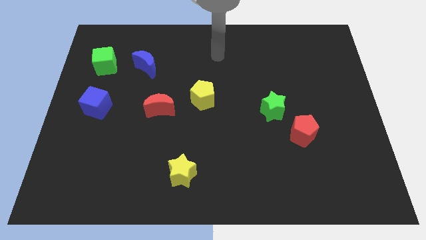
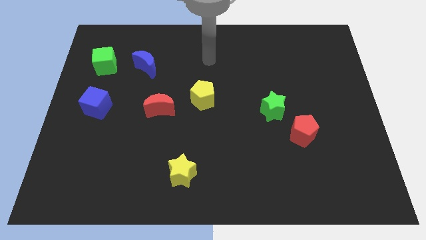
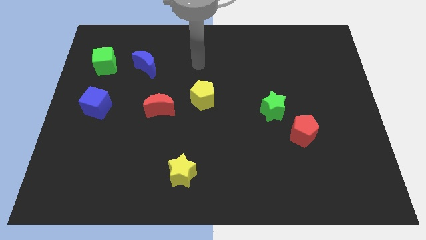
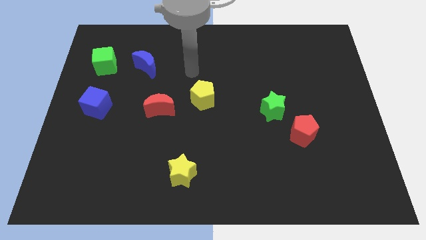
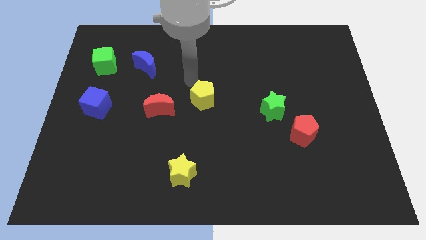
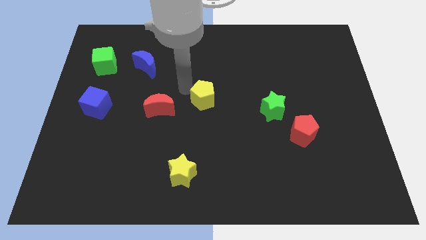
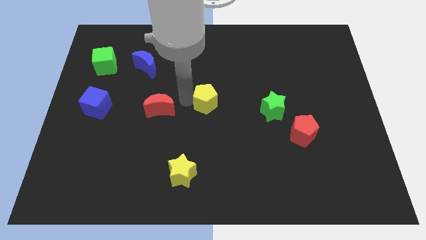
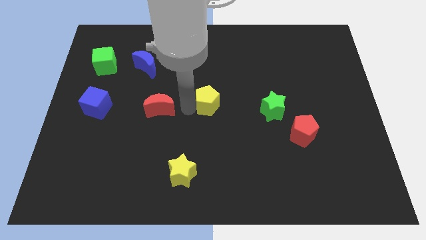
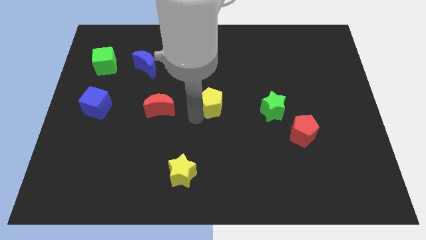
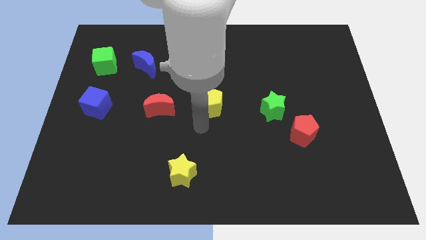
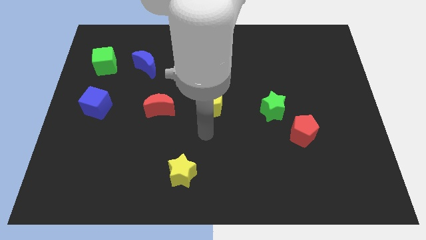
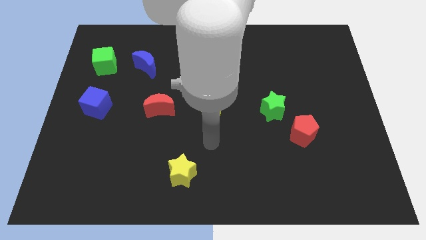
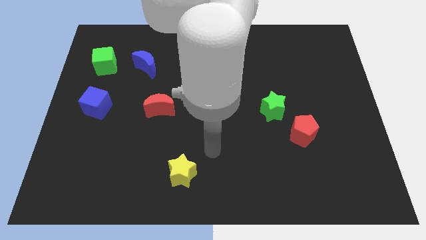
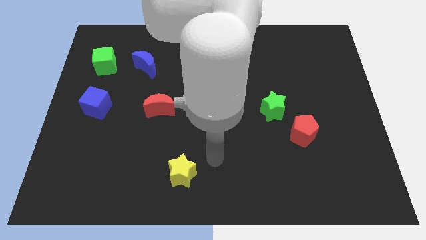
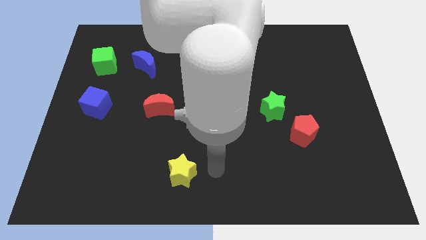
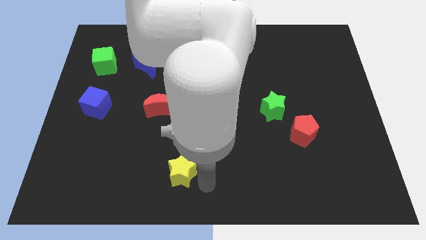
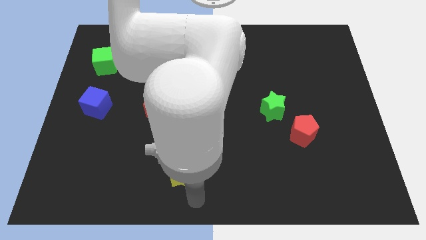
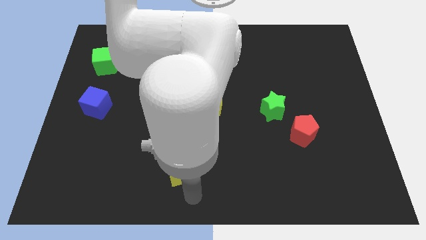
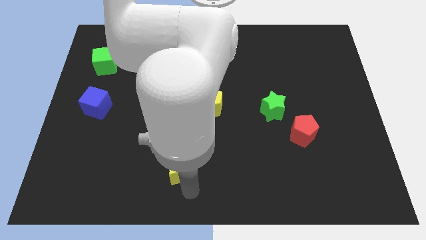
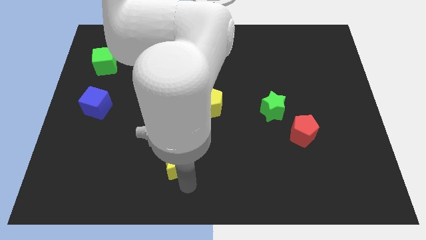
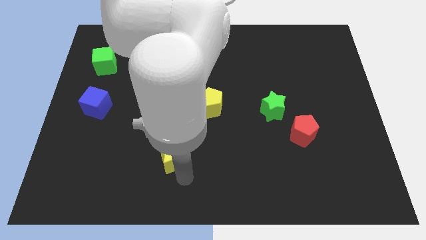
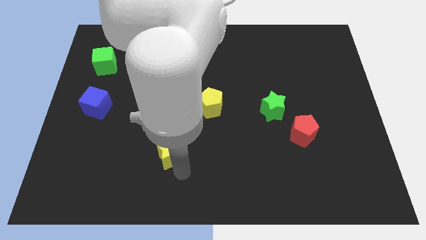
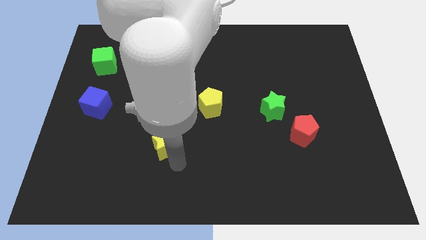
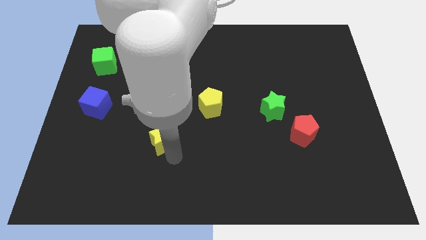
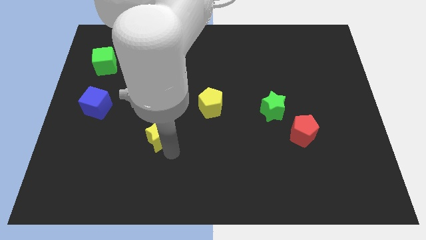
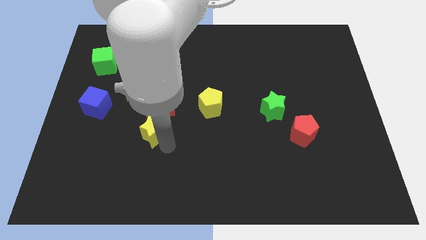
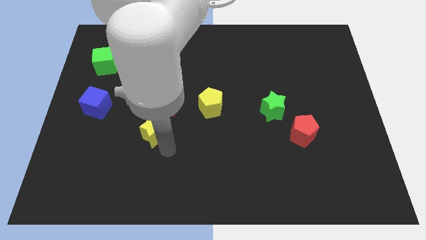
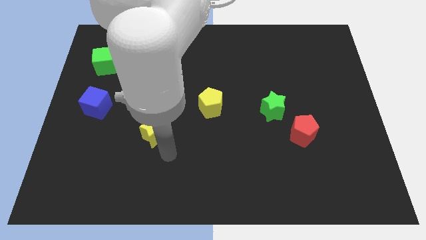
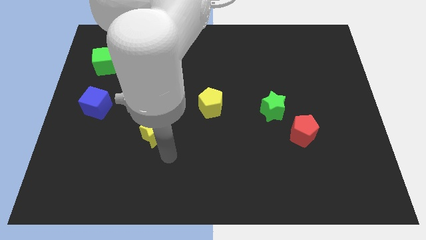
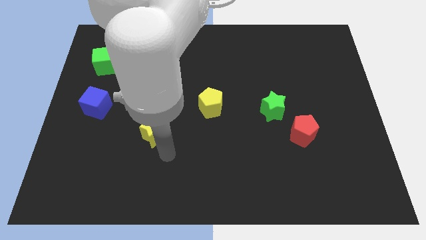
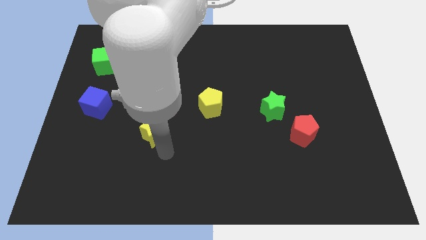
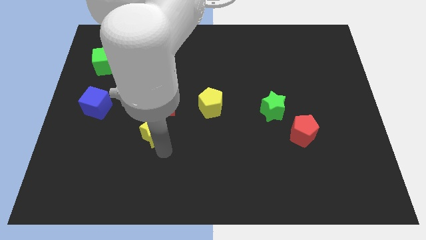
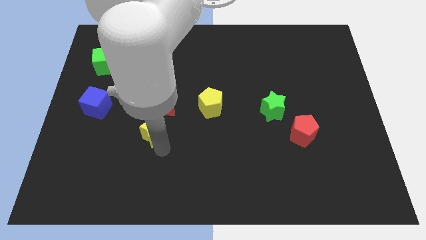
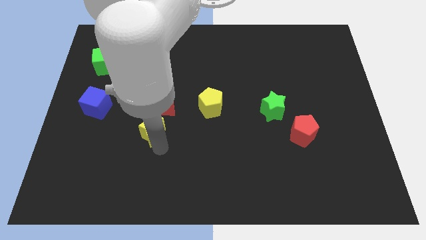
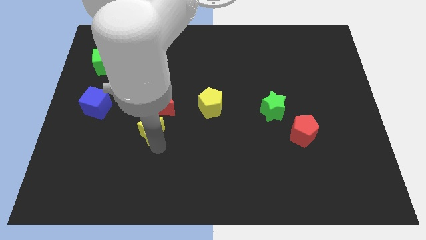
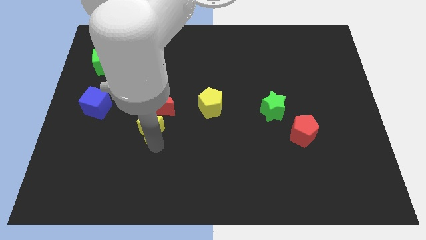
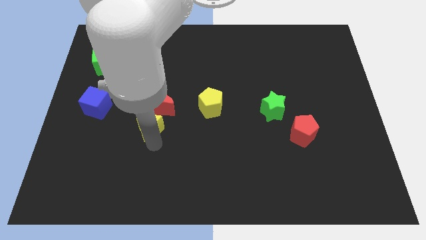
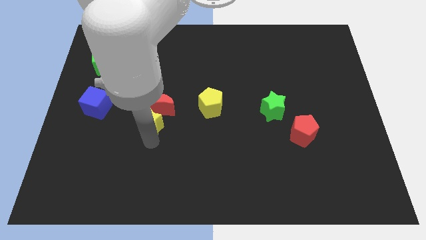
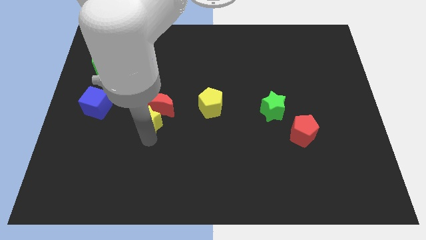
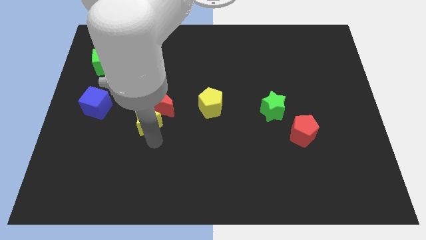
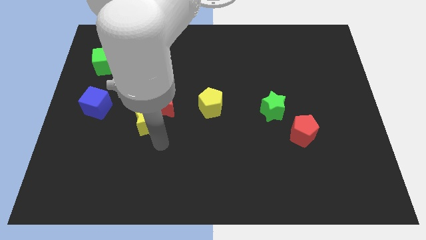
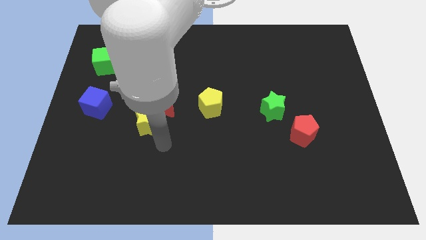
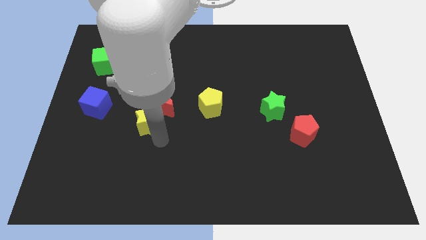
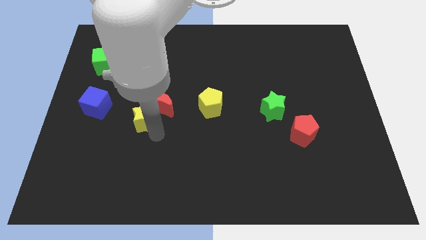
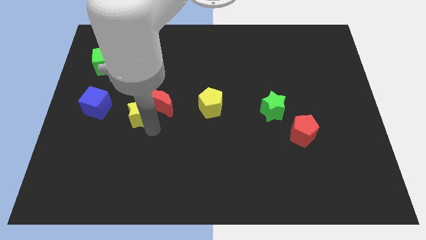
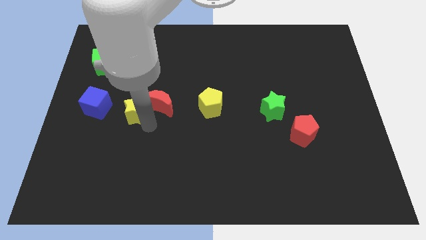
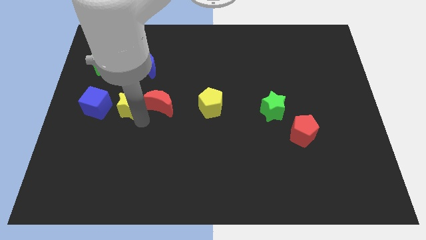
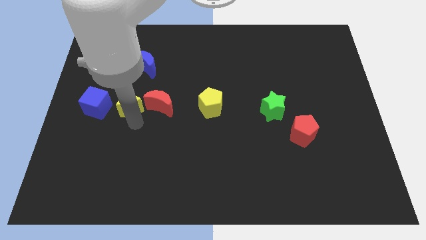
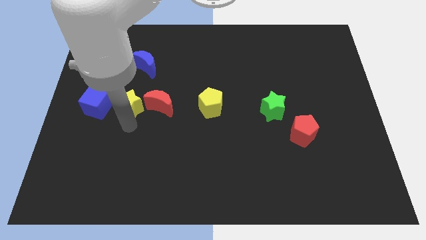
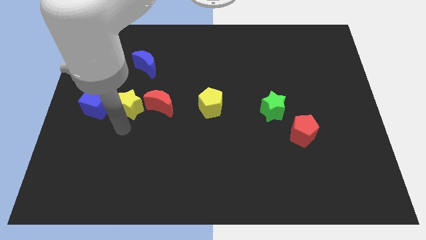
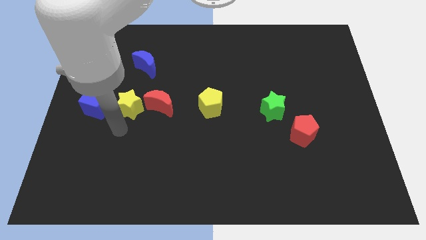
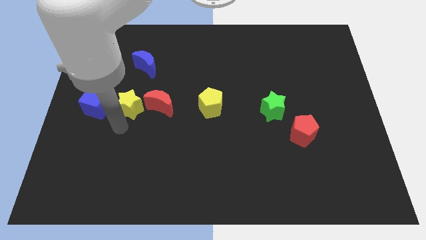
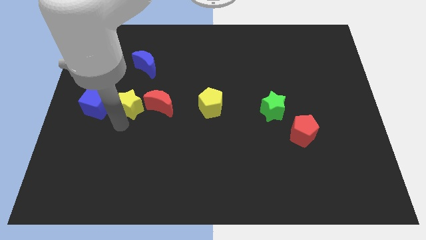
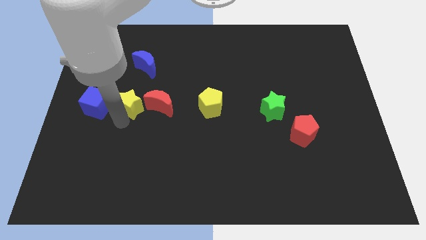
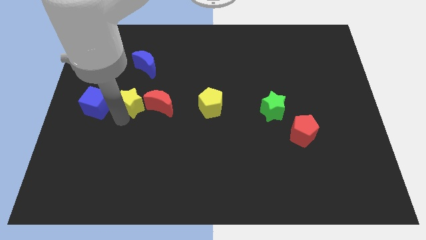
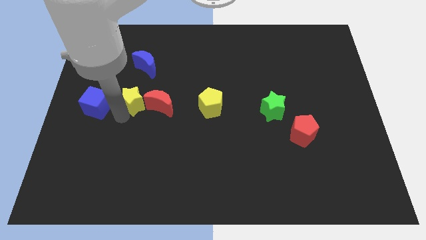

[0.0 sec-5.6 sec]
put the yellow star to the top left side of the red moon

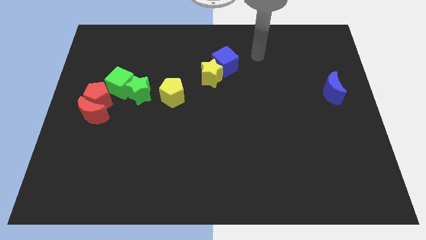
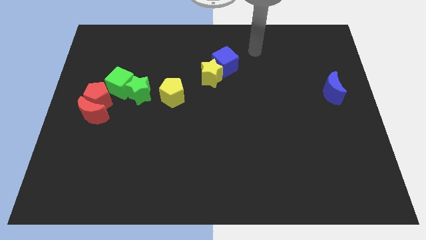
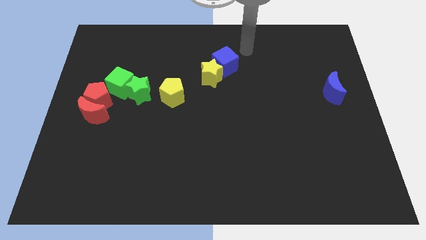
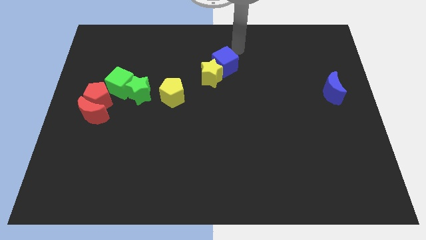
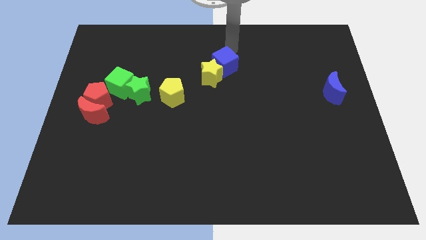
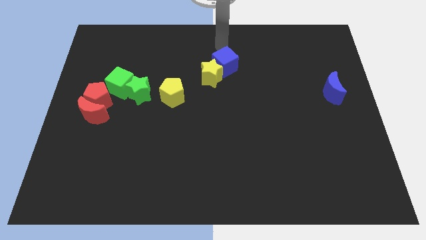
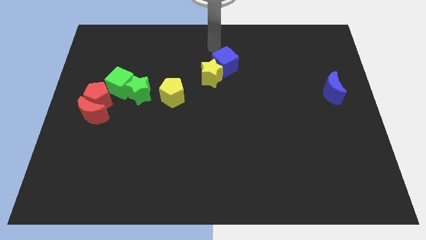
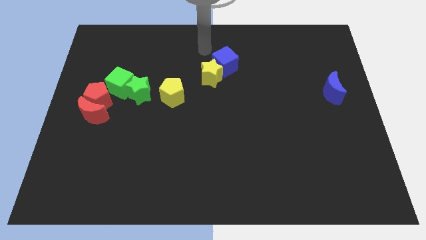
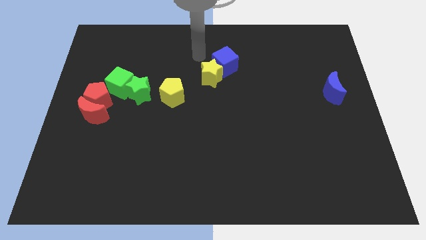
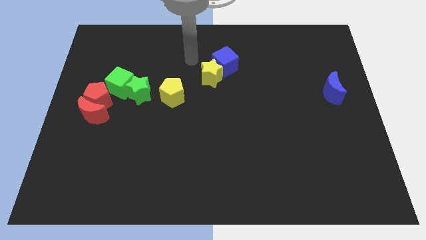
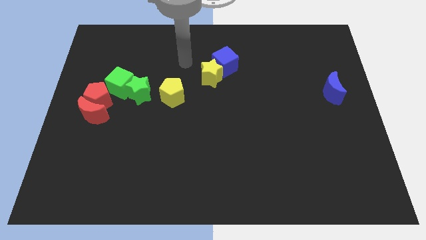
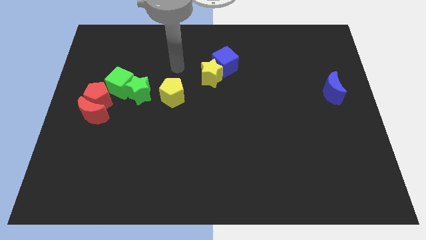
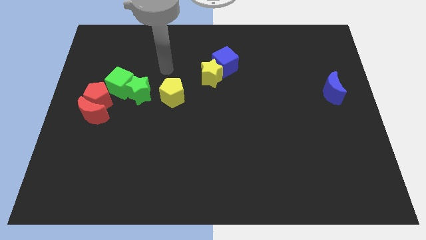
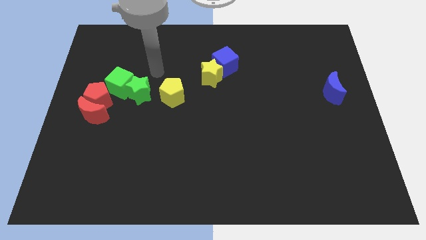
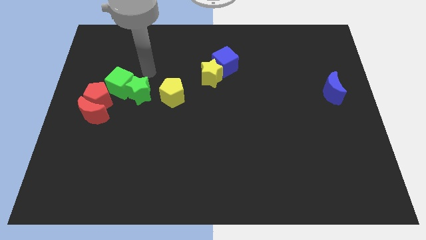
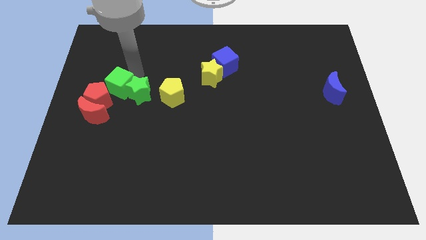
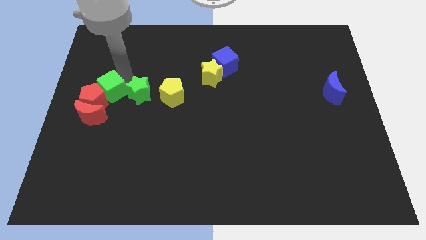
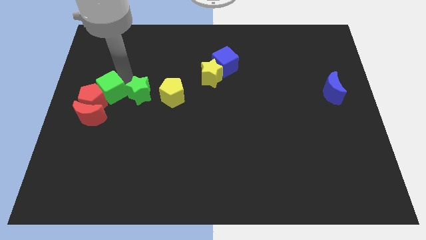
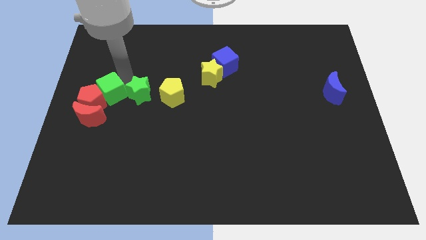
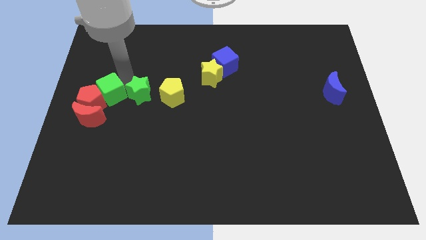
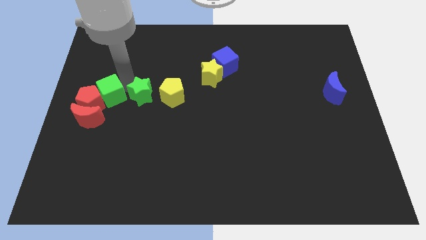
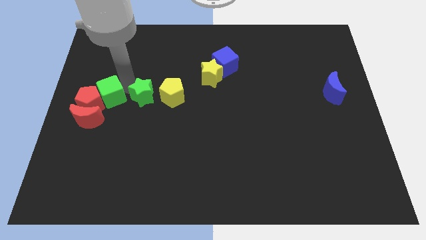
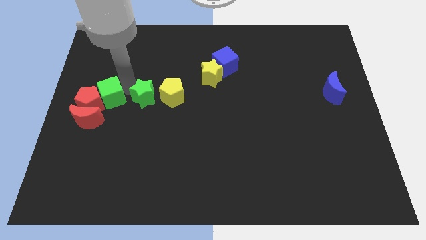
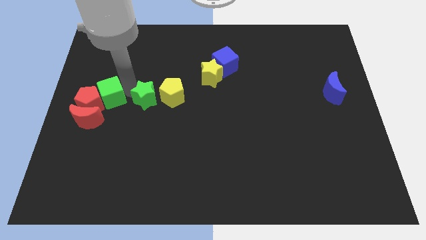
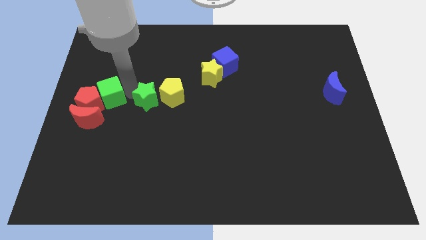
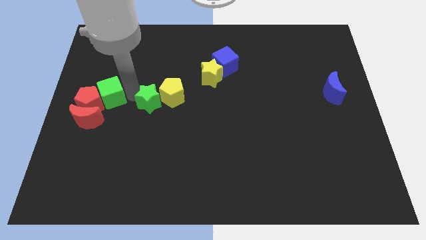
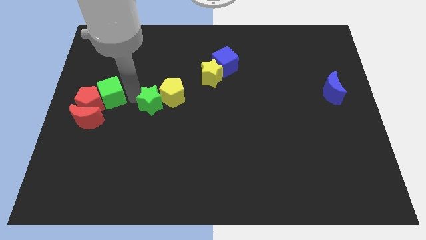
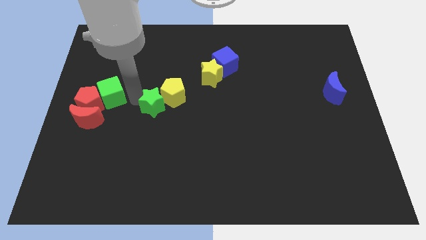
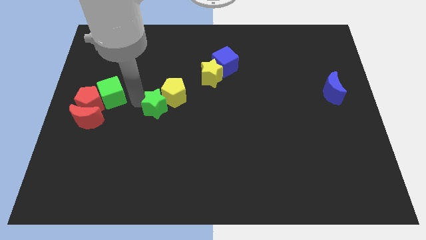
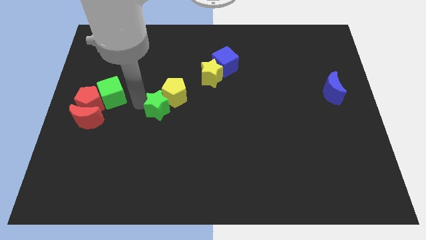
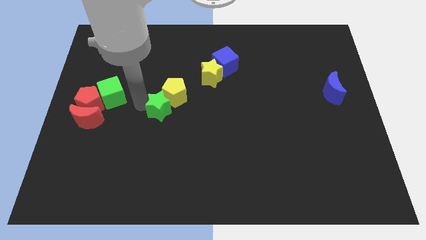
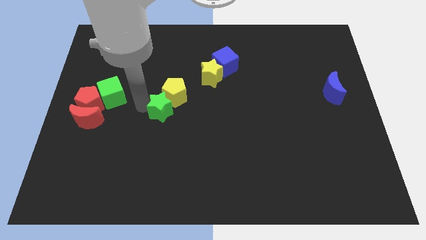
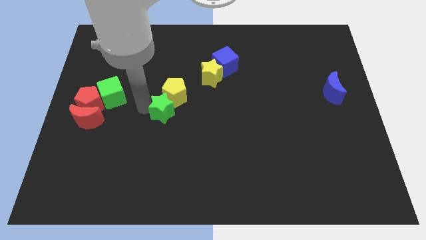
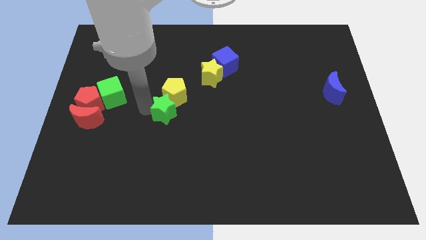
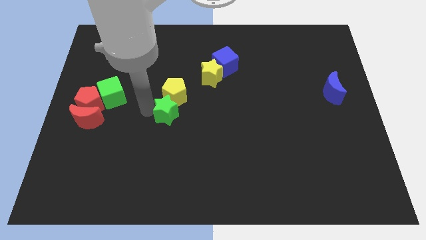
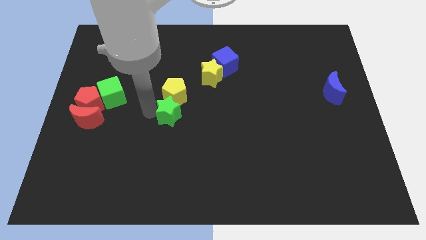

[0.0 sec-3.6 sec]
put the green star to the bottom right of the yellow pentagon
